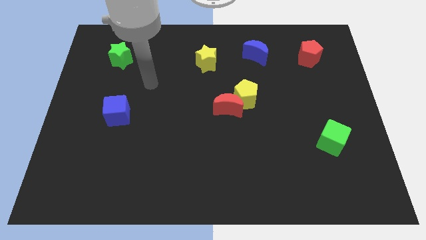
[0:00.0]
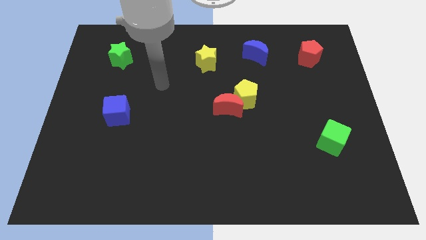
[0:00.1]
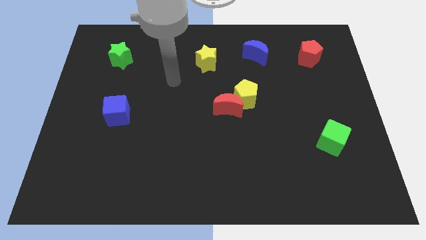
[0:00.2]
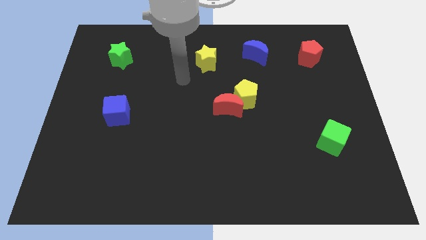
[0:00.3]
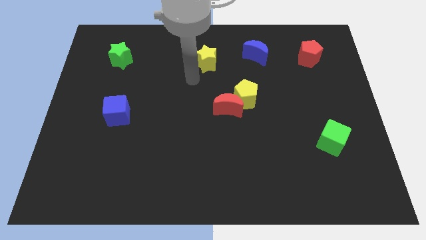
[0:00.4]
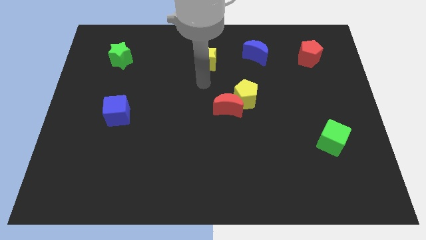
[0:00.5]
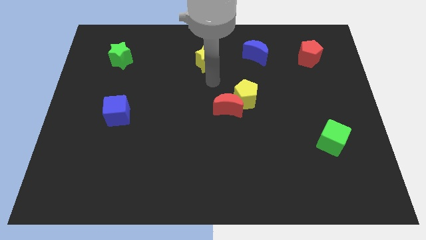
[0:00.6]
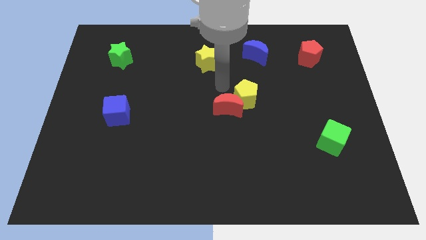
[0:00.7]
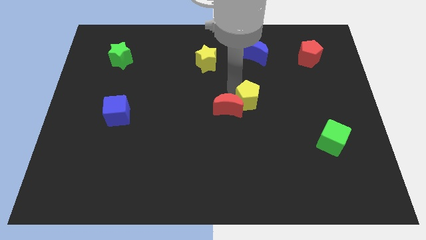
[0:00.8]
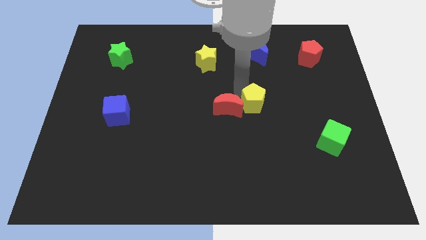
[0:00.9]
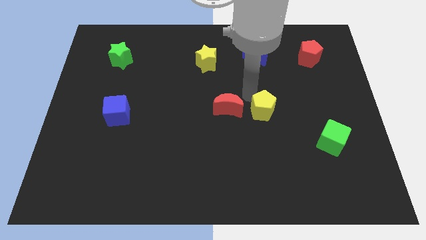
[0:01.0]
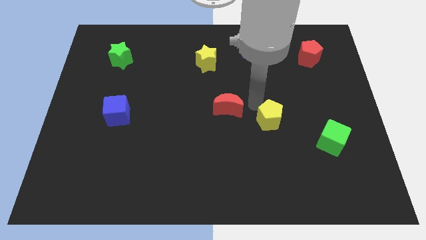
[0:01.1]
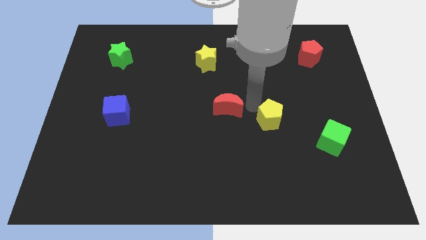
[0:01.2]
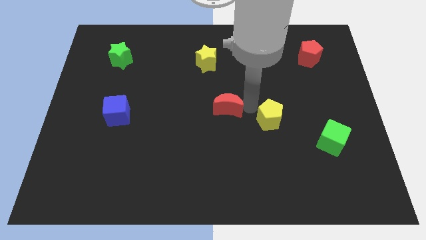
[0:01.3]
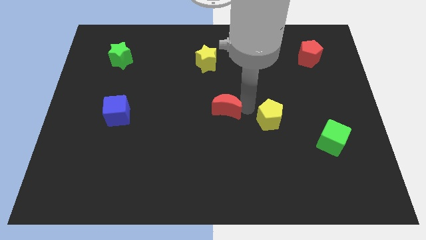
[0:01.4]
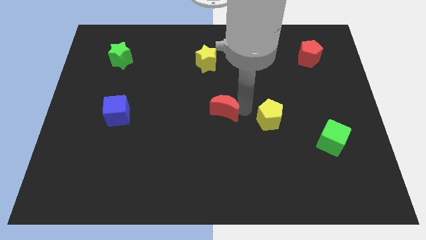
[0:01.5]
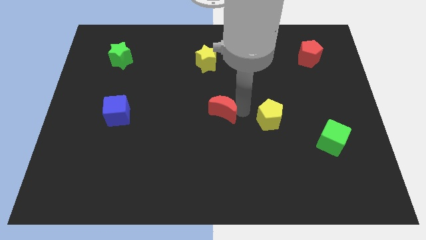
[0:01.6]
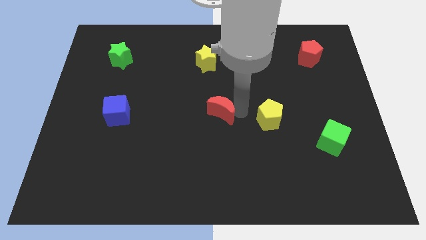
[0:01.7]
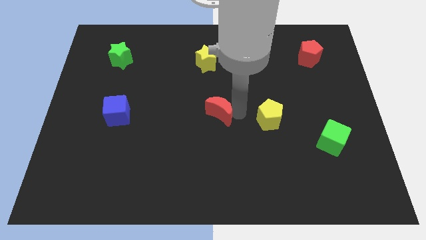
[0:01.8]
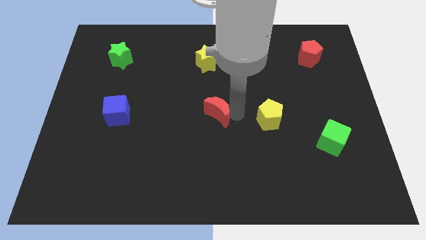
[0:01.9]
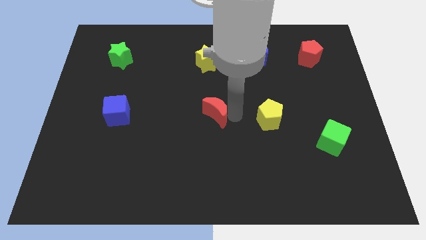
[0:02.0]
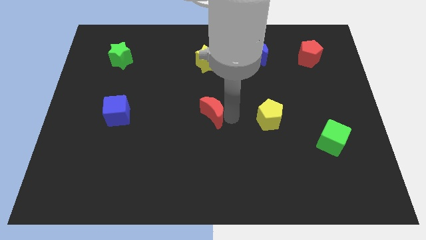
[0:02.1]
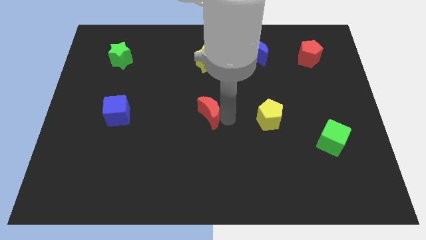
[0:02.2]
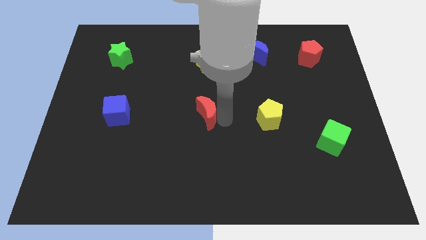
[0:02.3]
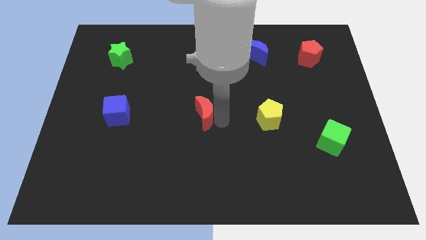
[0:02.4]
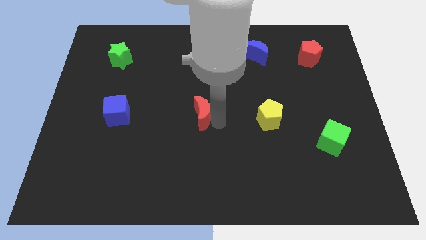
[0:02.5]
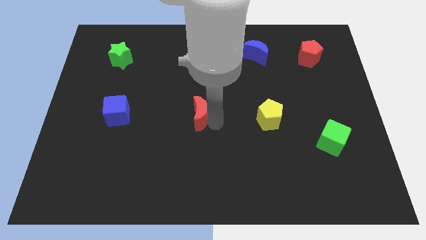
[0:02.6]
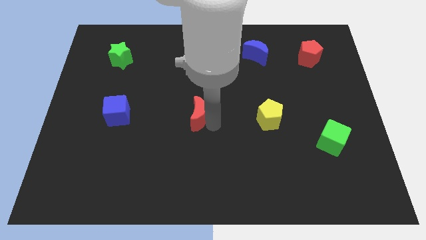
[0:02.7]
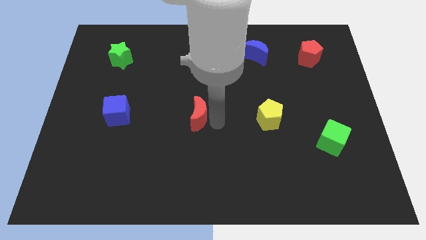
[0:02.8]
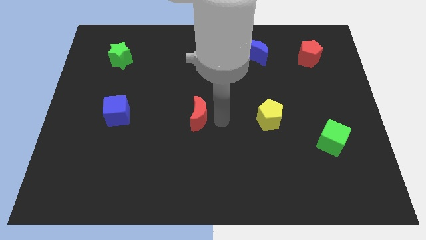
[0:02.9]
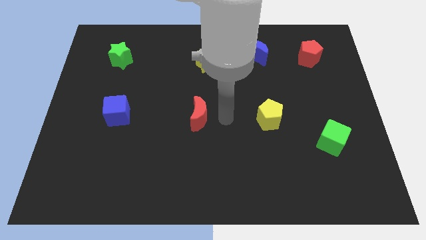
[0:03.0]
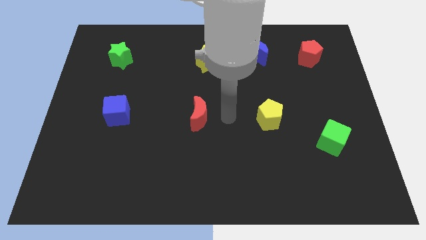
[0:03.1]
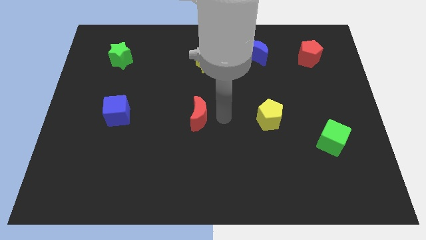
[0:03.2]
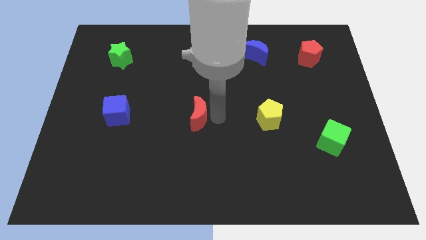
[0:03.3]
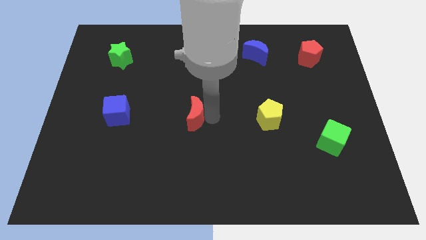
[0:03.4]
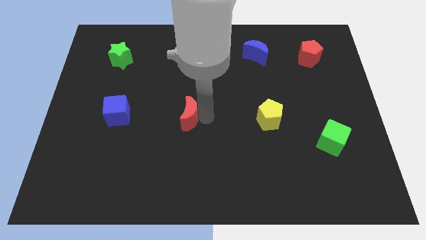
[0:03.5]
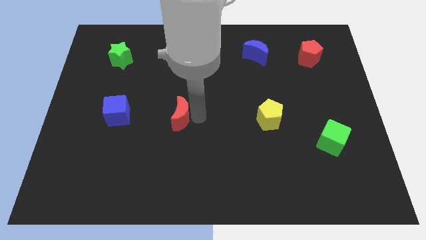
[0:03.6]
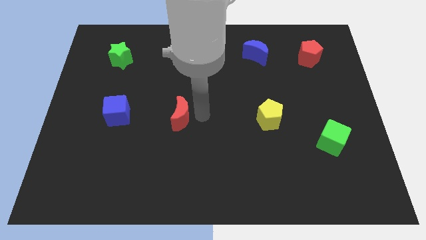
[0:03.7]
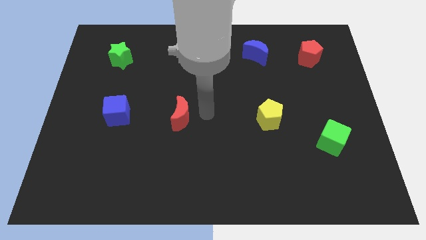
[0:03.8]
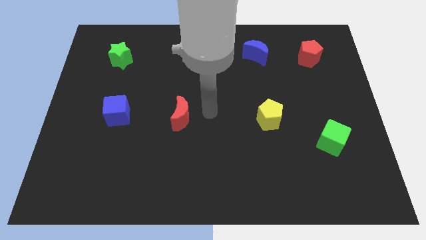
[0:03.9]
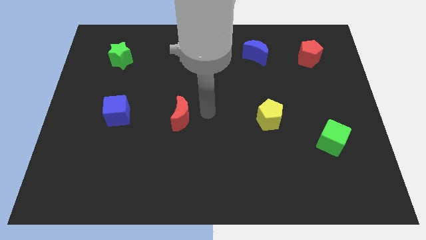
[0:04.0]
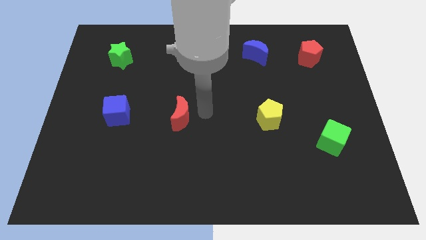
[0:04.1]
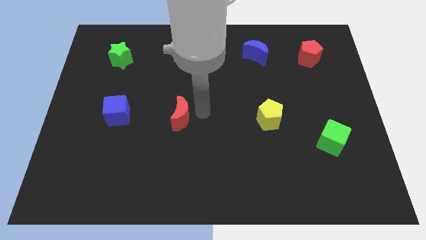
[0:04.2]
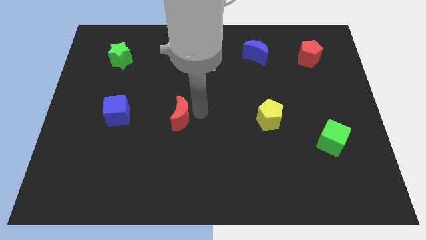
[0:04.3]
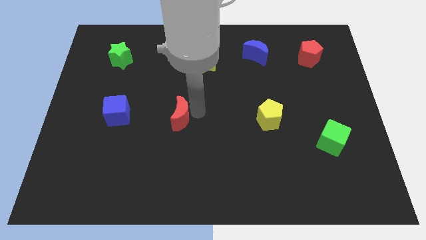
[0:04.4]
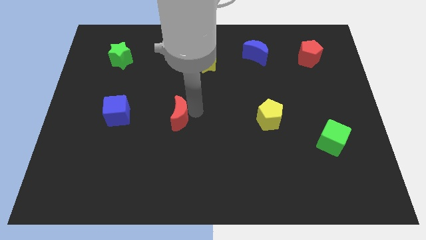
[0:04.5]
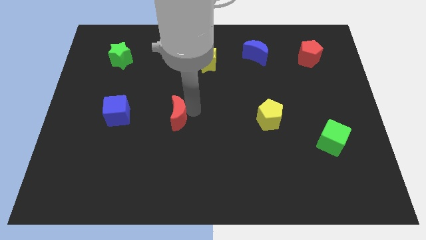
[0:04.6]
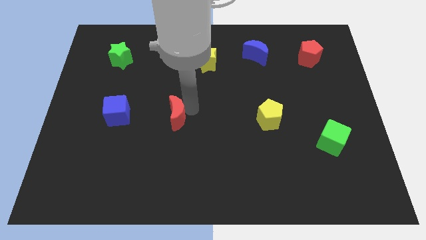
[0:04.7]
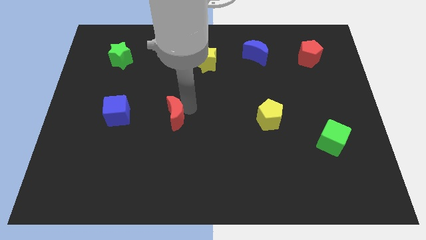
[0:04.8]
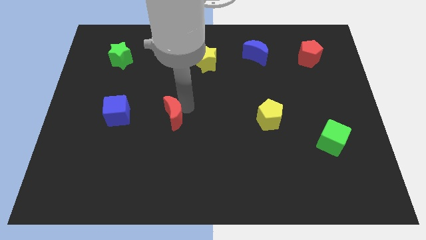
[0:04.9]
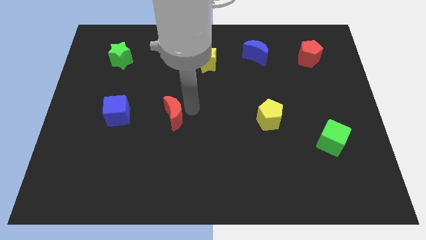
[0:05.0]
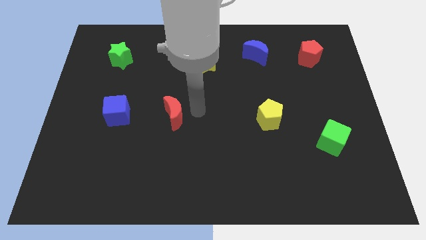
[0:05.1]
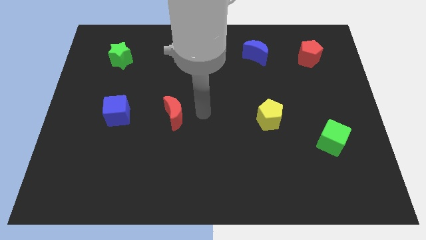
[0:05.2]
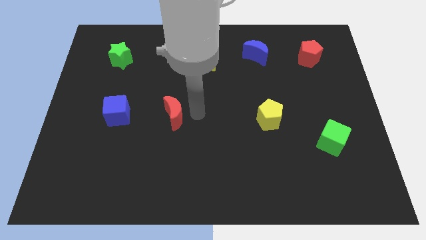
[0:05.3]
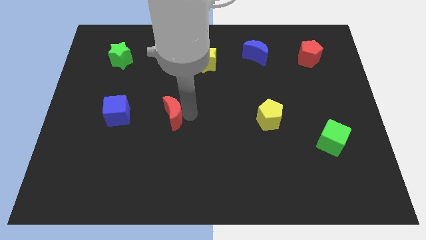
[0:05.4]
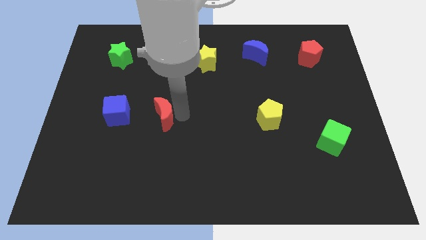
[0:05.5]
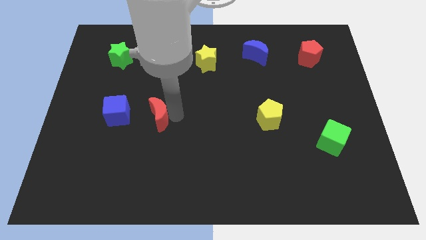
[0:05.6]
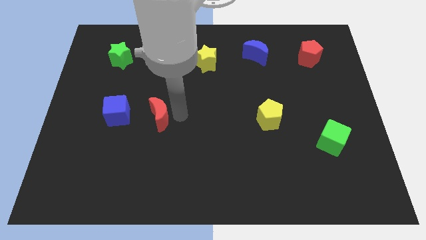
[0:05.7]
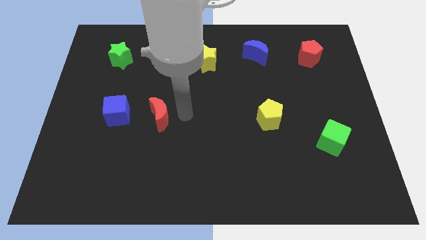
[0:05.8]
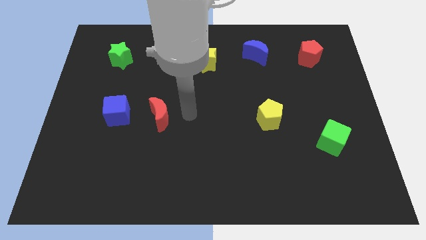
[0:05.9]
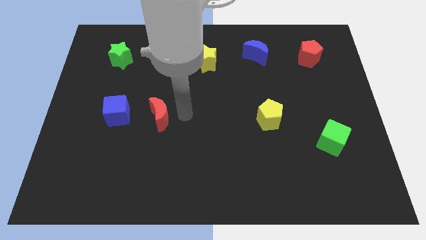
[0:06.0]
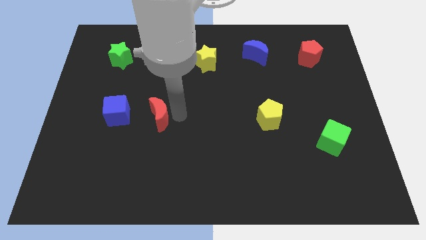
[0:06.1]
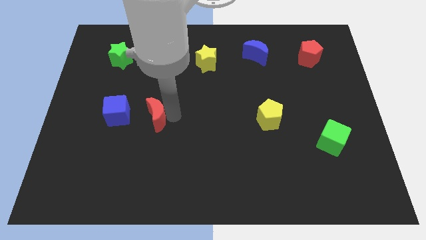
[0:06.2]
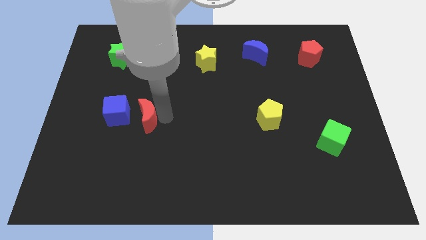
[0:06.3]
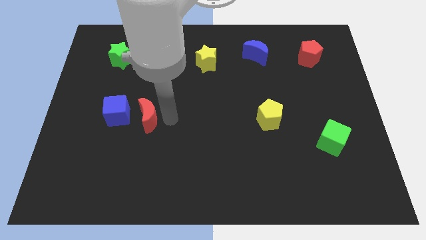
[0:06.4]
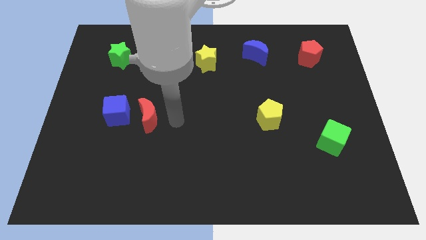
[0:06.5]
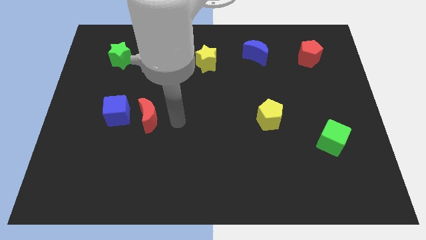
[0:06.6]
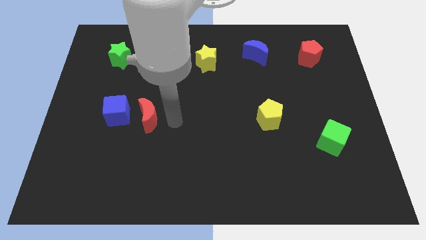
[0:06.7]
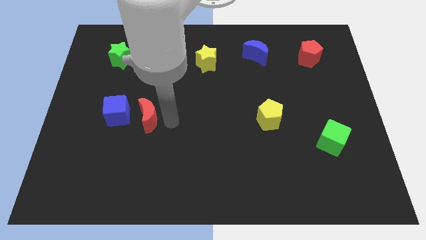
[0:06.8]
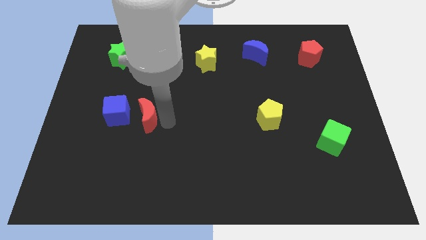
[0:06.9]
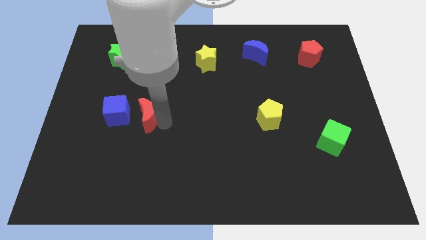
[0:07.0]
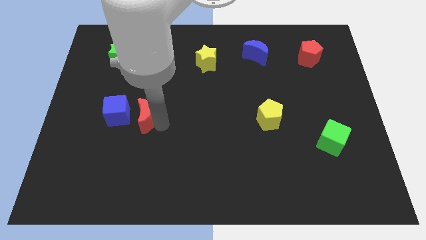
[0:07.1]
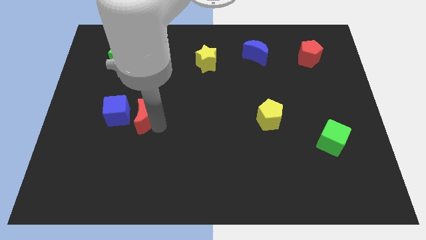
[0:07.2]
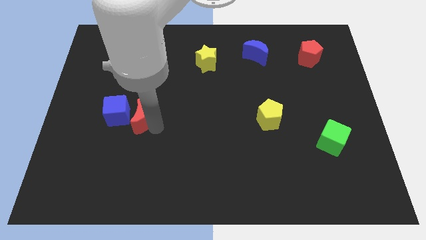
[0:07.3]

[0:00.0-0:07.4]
move the red moon close to the blue cube
